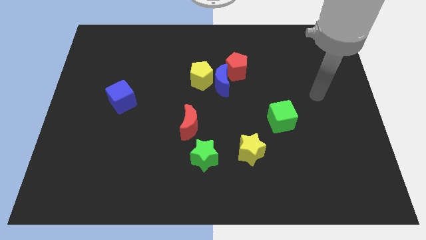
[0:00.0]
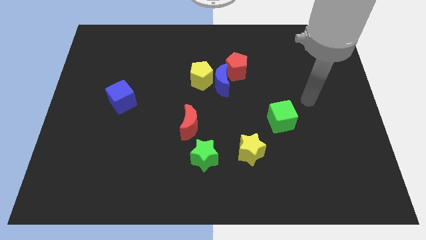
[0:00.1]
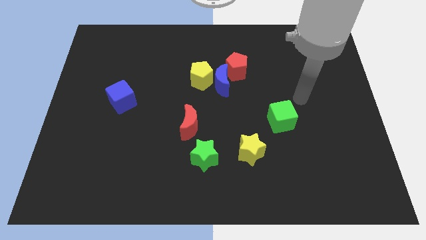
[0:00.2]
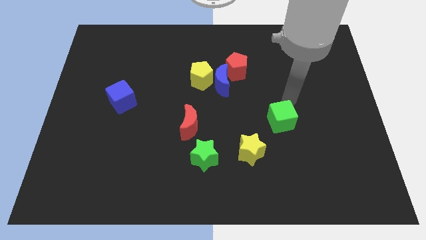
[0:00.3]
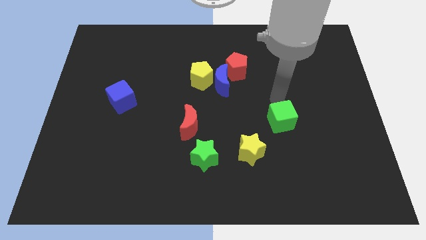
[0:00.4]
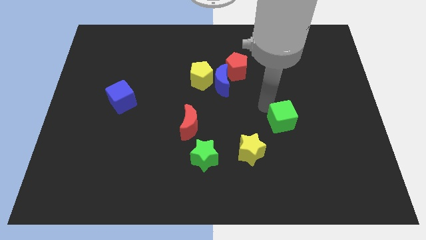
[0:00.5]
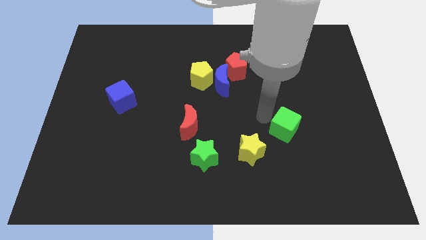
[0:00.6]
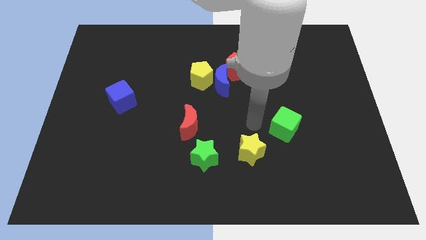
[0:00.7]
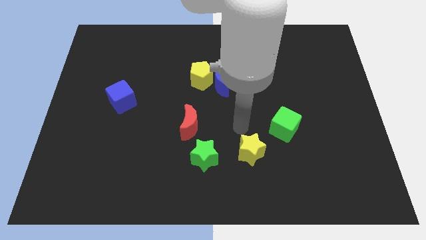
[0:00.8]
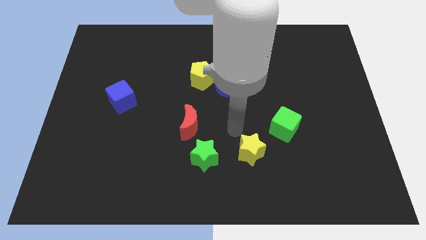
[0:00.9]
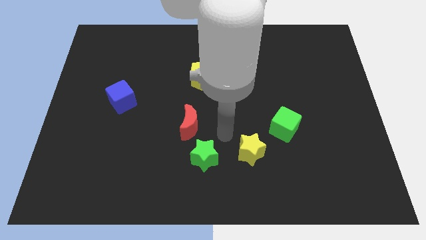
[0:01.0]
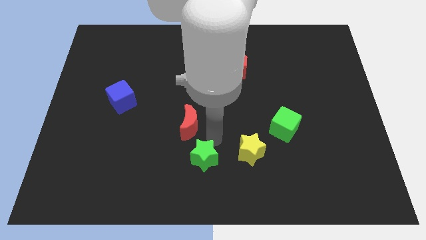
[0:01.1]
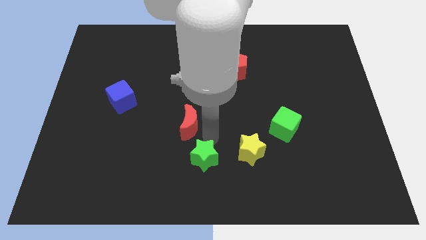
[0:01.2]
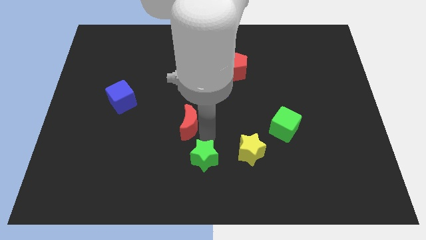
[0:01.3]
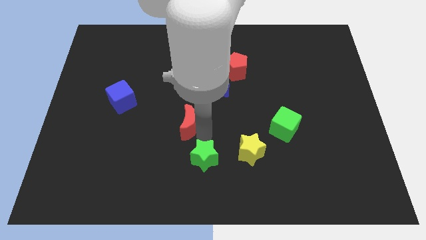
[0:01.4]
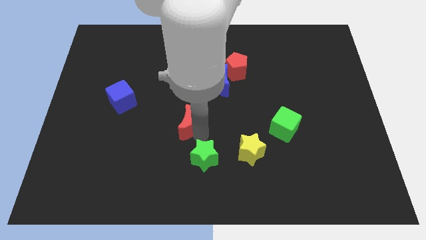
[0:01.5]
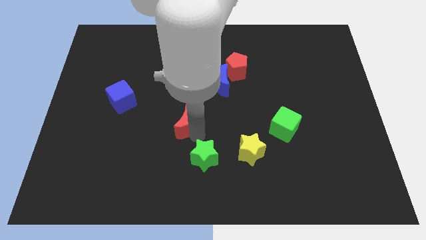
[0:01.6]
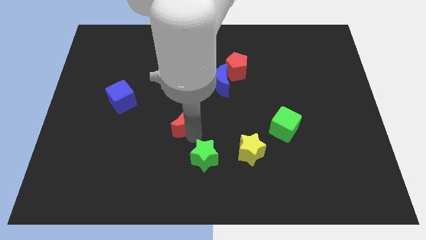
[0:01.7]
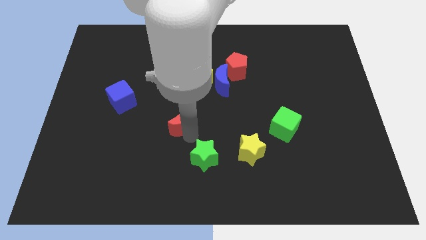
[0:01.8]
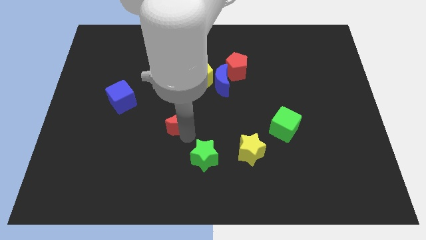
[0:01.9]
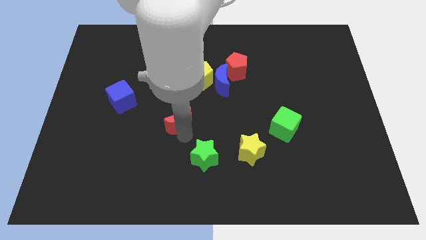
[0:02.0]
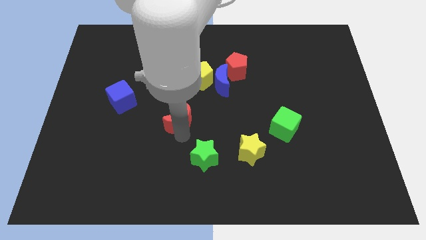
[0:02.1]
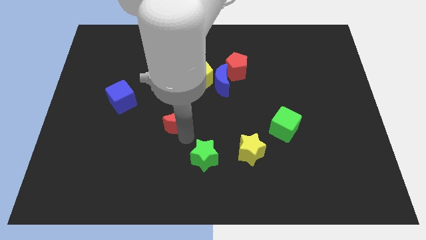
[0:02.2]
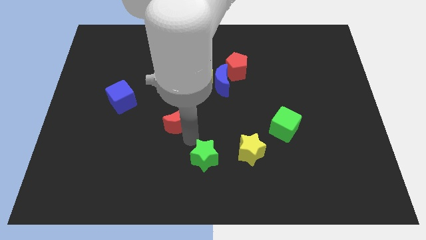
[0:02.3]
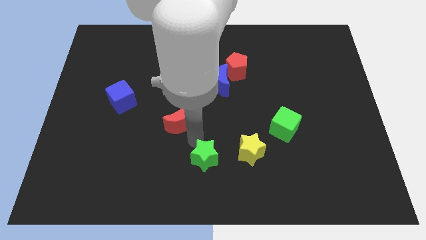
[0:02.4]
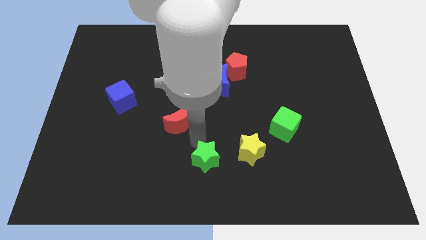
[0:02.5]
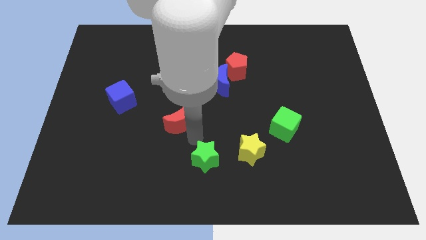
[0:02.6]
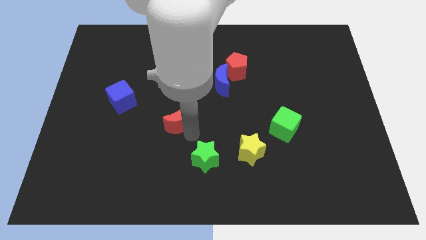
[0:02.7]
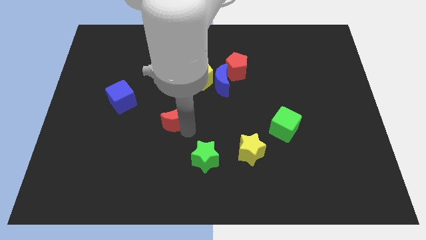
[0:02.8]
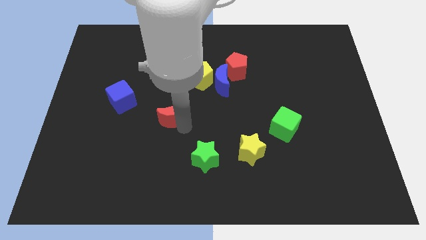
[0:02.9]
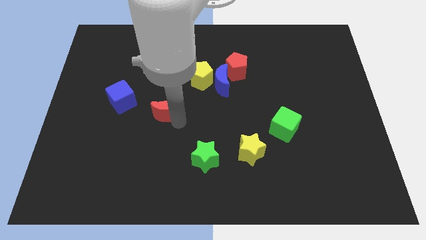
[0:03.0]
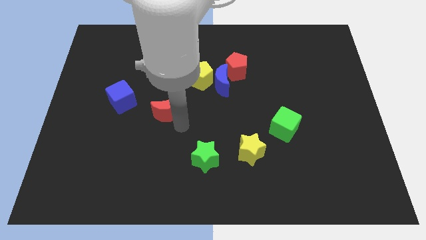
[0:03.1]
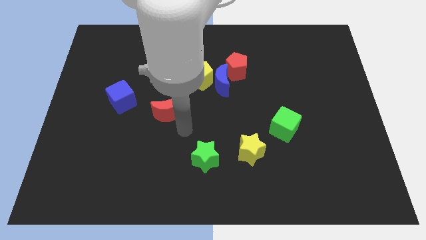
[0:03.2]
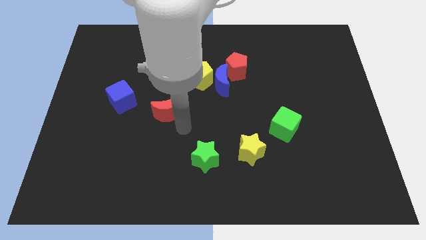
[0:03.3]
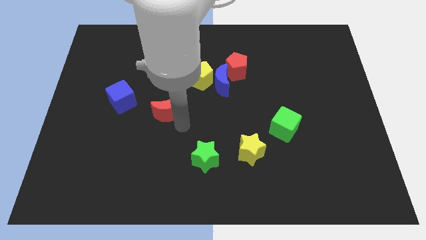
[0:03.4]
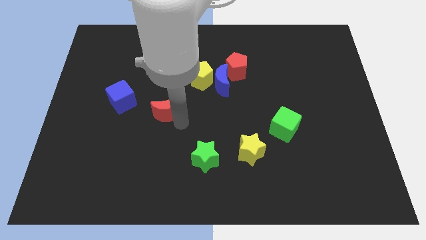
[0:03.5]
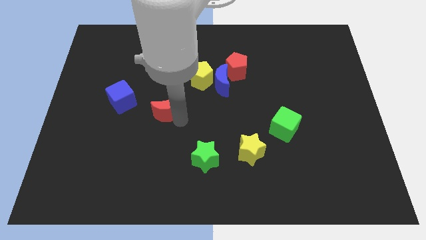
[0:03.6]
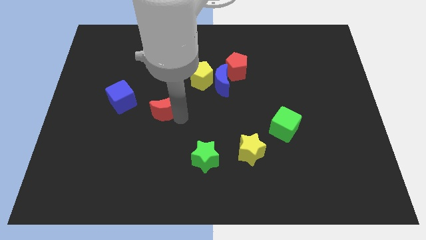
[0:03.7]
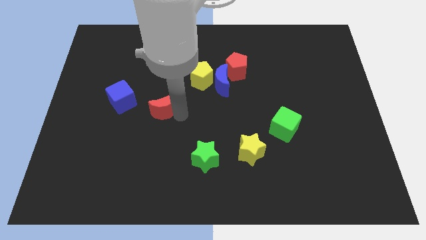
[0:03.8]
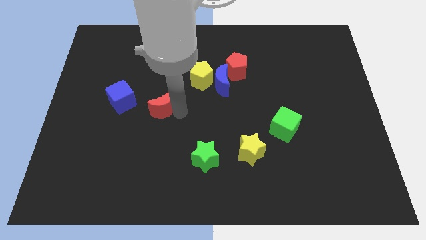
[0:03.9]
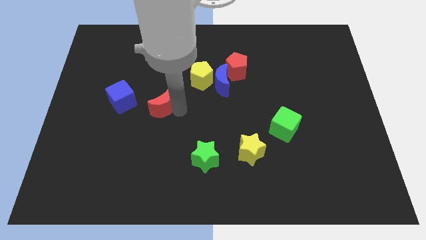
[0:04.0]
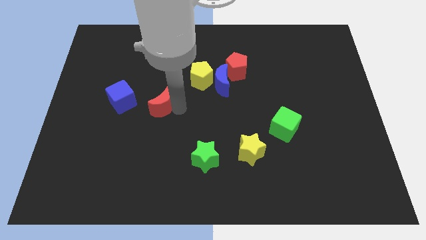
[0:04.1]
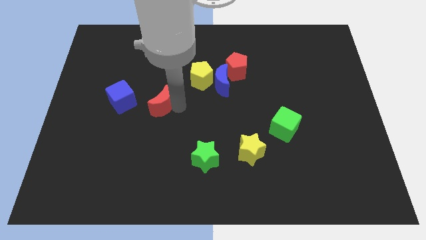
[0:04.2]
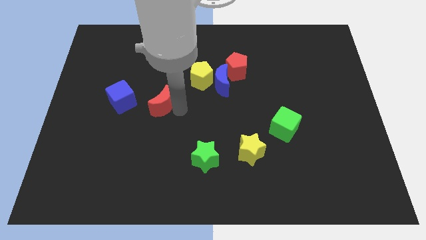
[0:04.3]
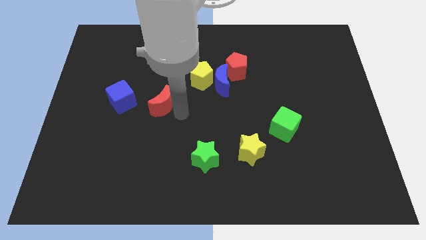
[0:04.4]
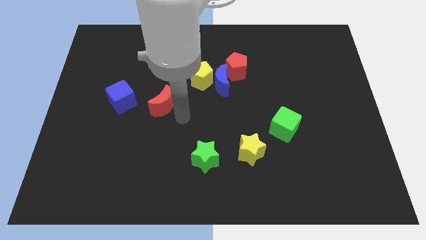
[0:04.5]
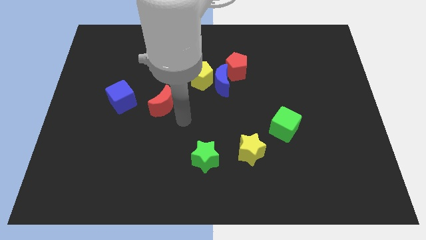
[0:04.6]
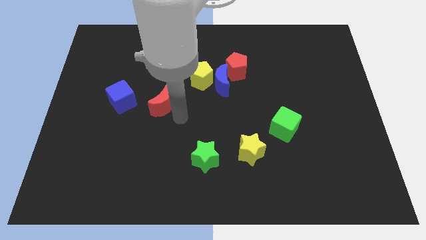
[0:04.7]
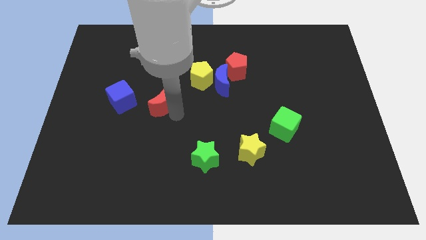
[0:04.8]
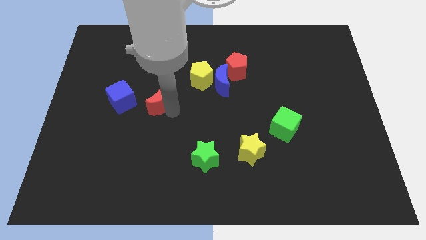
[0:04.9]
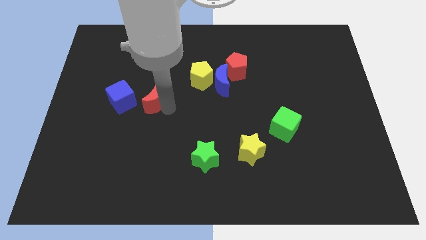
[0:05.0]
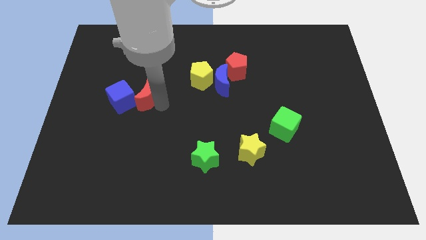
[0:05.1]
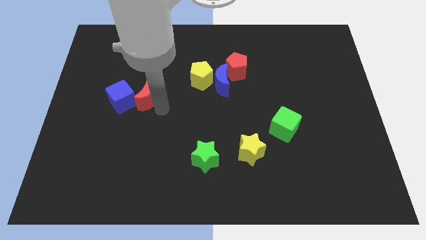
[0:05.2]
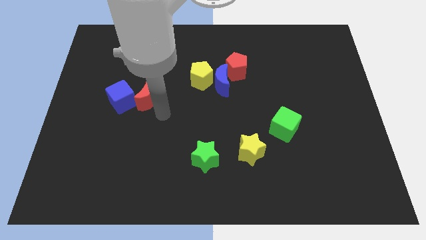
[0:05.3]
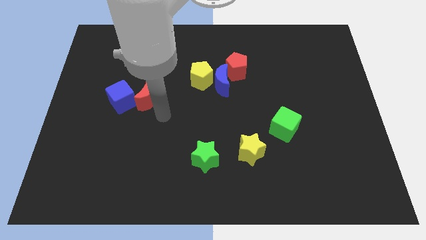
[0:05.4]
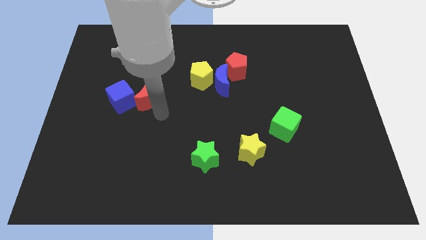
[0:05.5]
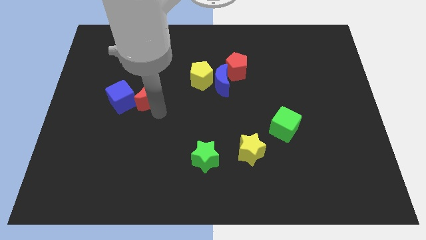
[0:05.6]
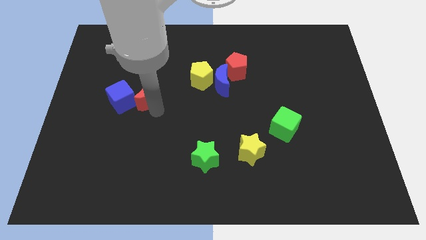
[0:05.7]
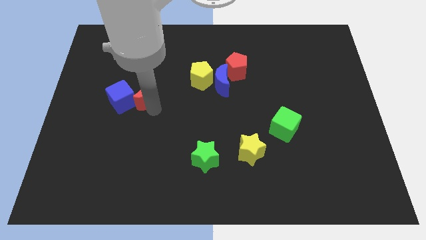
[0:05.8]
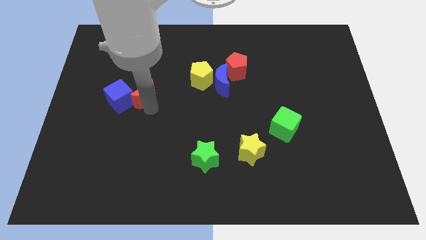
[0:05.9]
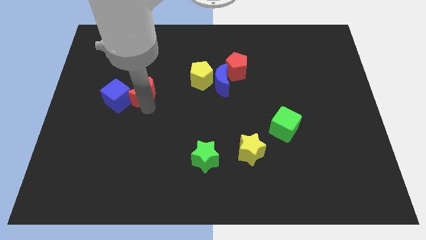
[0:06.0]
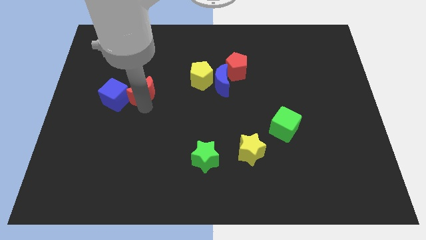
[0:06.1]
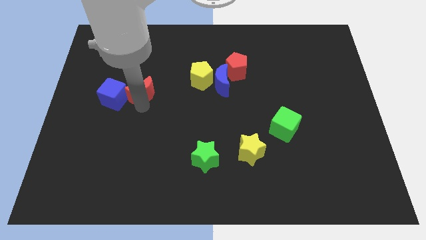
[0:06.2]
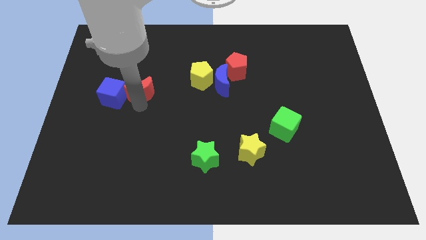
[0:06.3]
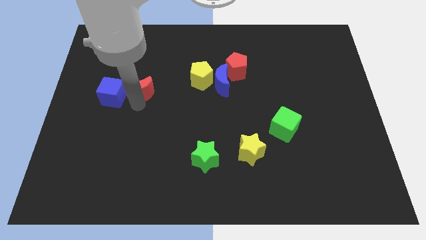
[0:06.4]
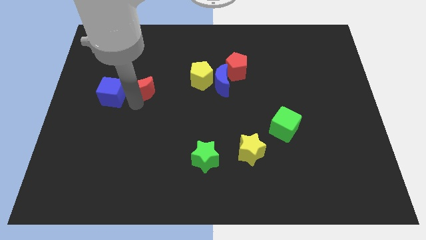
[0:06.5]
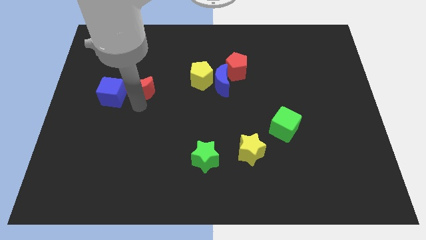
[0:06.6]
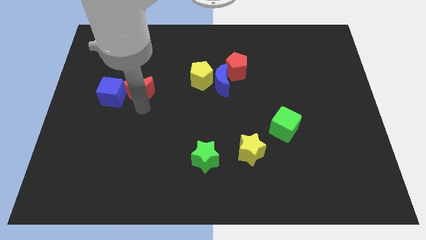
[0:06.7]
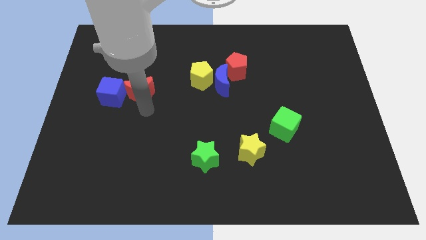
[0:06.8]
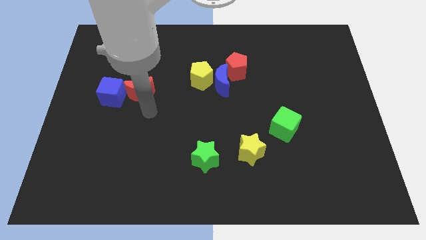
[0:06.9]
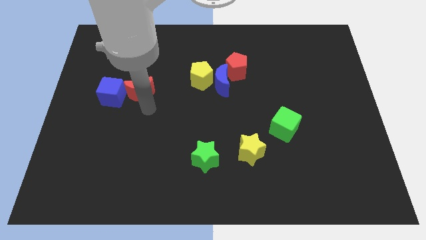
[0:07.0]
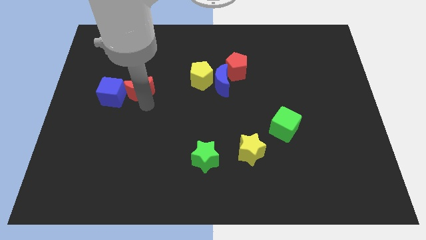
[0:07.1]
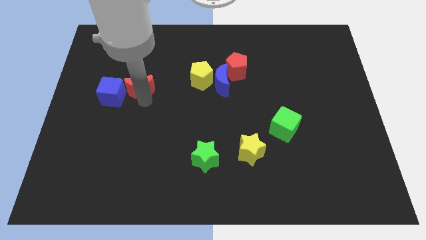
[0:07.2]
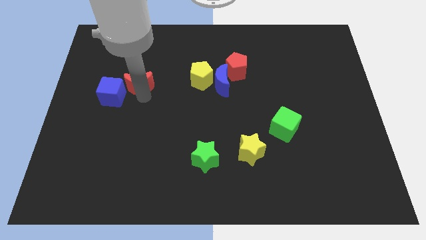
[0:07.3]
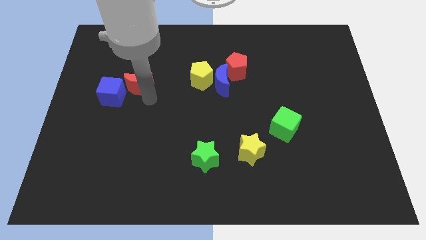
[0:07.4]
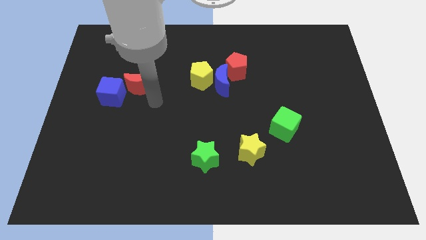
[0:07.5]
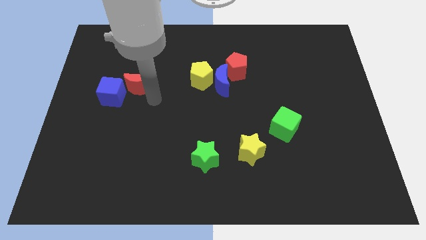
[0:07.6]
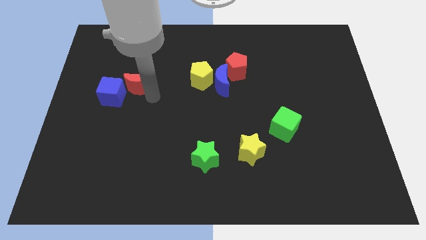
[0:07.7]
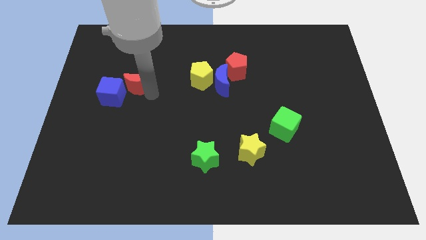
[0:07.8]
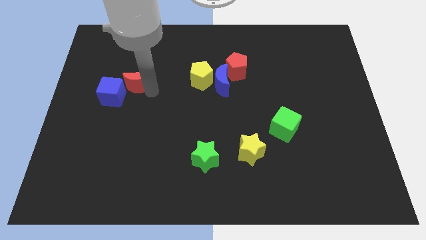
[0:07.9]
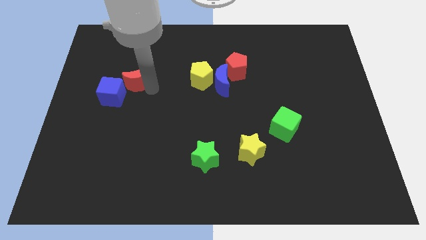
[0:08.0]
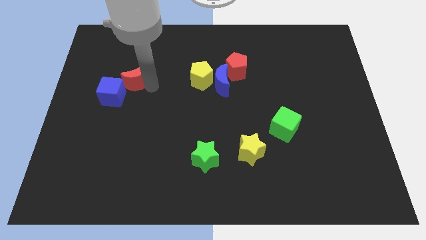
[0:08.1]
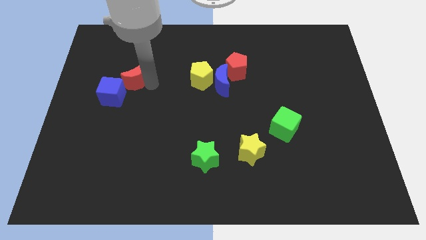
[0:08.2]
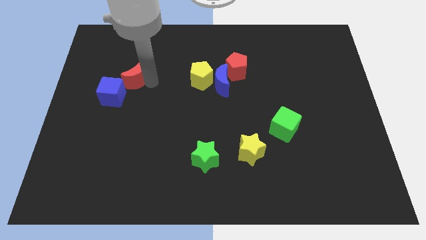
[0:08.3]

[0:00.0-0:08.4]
move the red moon up and left
